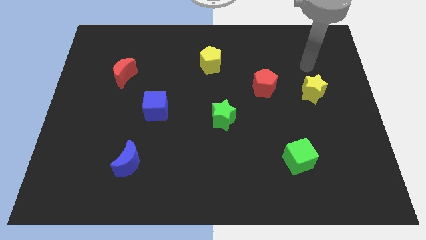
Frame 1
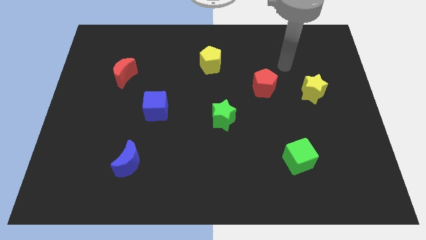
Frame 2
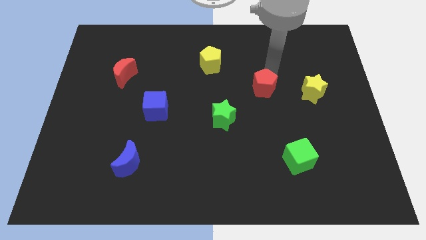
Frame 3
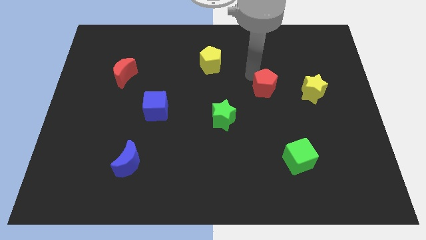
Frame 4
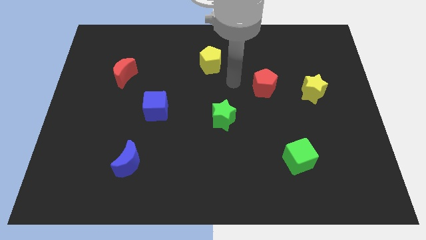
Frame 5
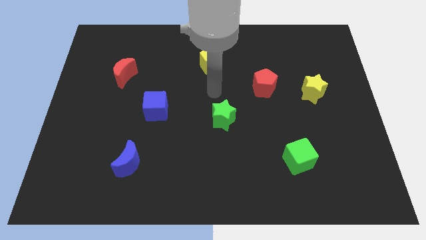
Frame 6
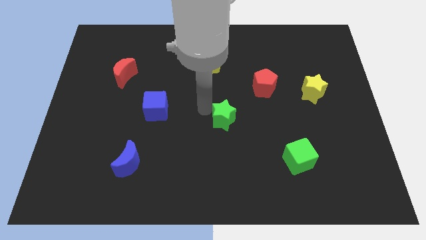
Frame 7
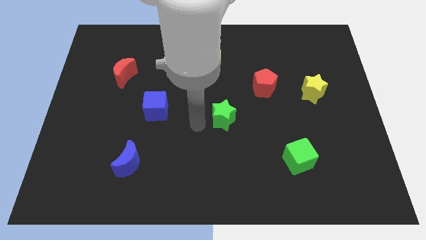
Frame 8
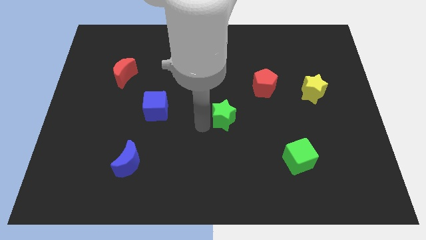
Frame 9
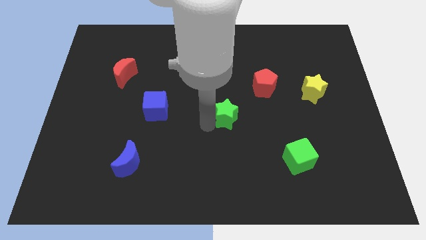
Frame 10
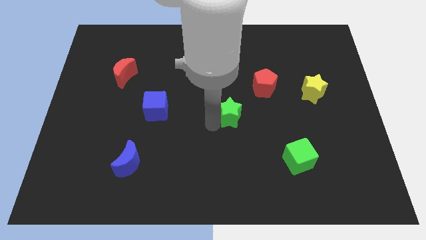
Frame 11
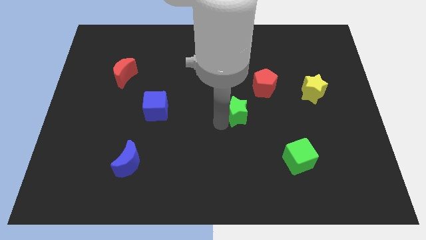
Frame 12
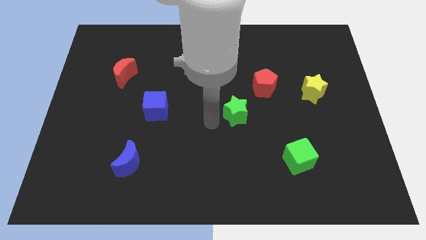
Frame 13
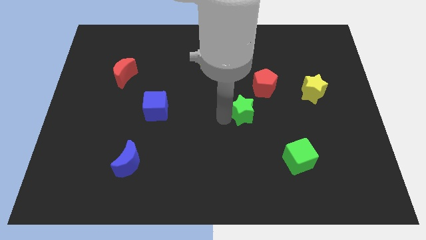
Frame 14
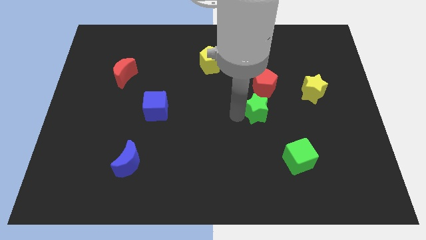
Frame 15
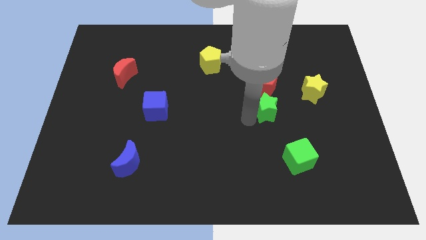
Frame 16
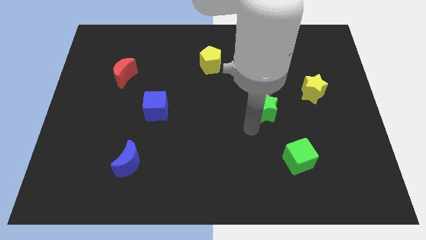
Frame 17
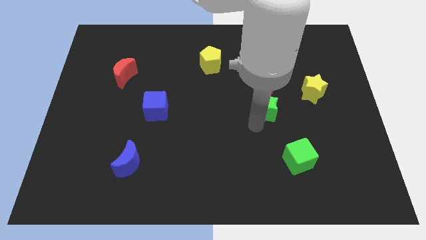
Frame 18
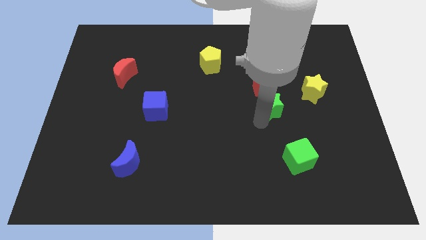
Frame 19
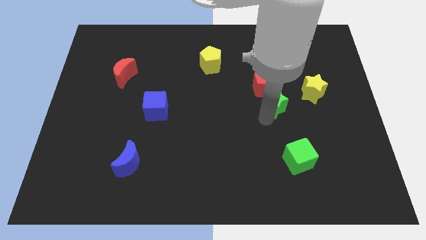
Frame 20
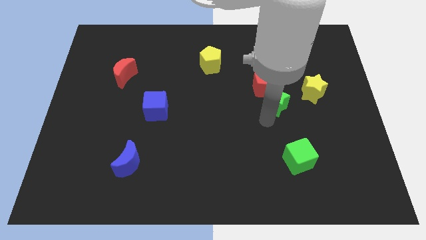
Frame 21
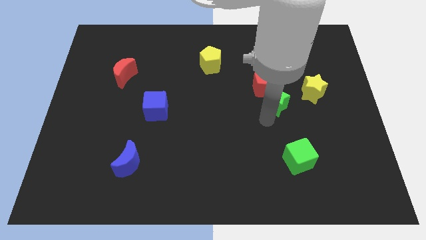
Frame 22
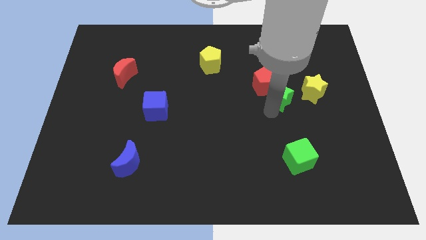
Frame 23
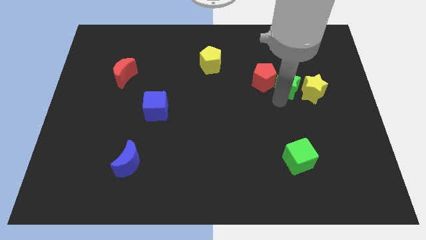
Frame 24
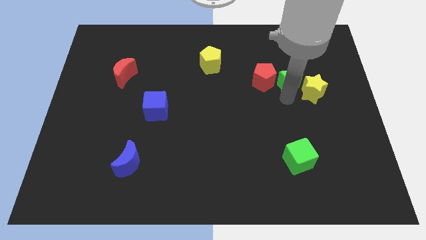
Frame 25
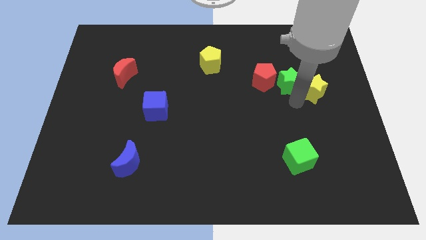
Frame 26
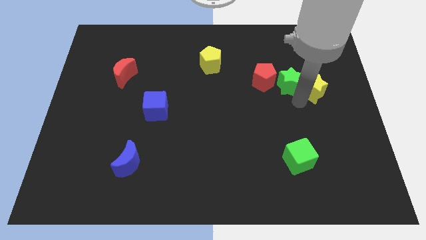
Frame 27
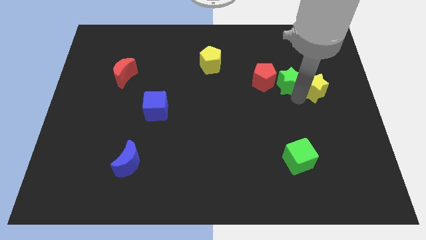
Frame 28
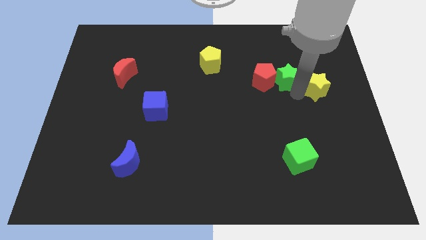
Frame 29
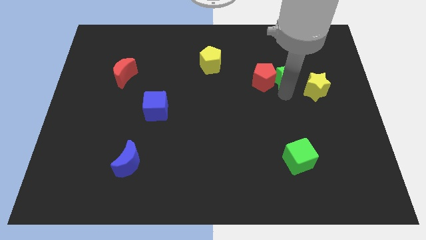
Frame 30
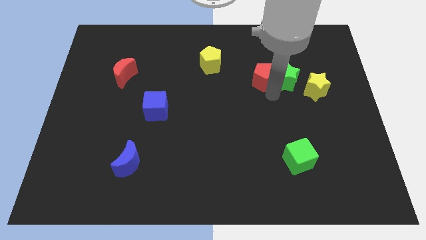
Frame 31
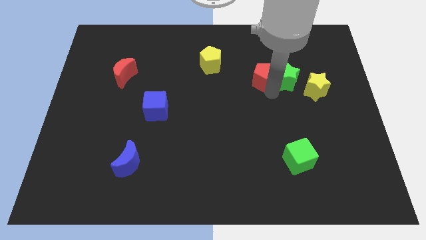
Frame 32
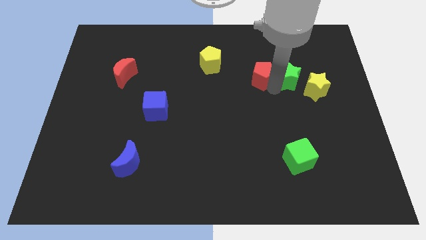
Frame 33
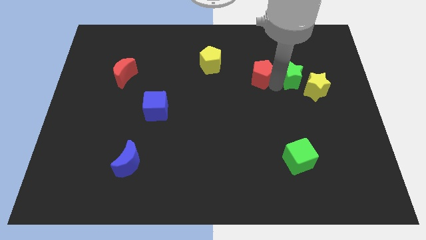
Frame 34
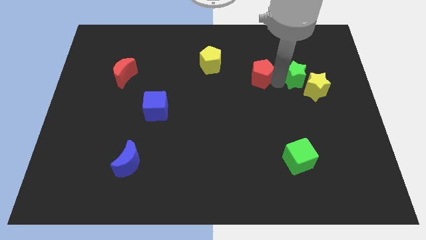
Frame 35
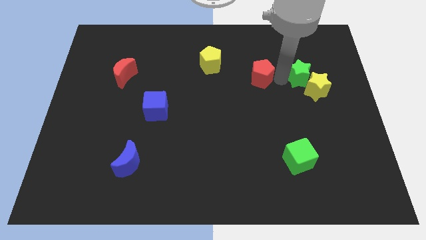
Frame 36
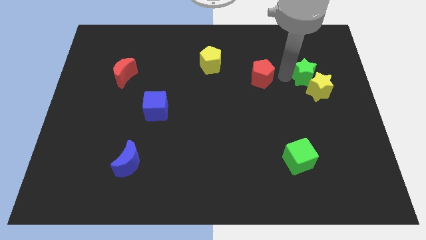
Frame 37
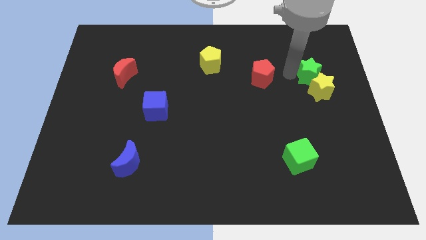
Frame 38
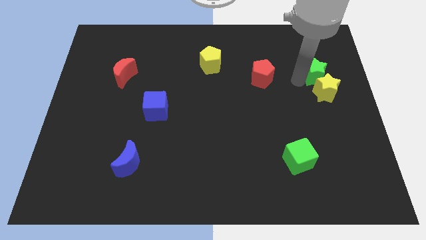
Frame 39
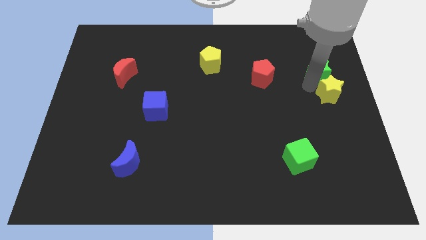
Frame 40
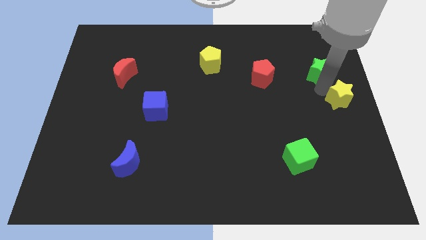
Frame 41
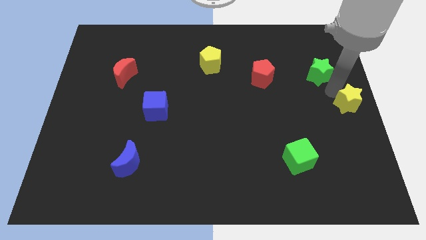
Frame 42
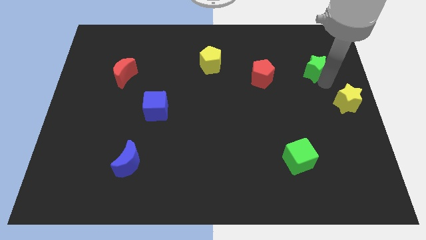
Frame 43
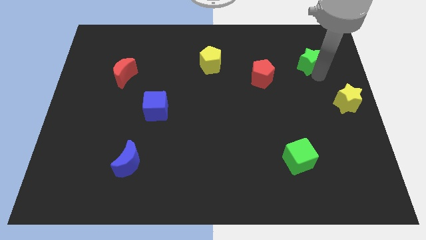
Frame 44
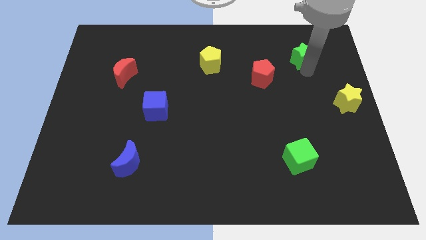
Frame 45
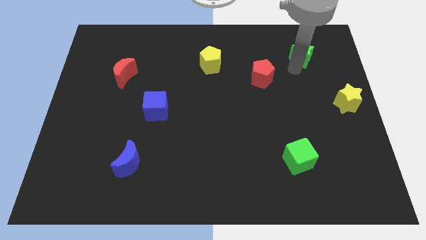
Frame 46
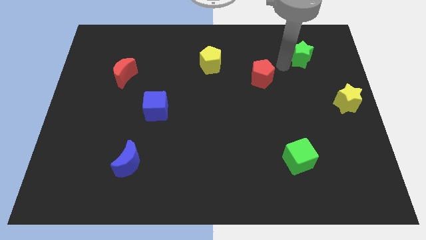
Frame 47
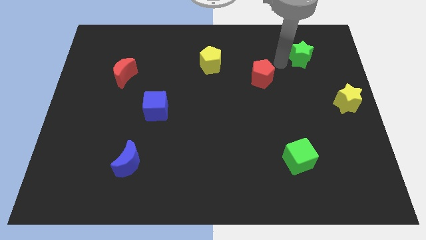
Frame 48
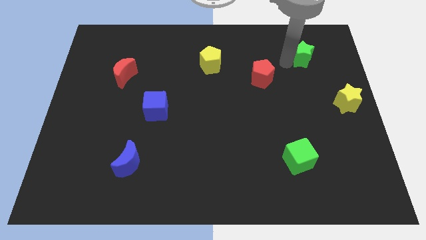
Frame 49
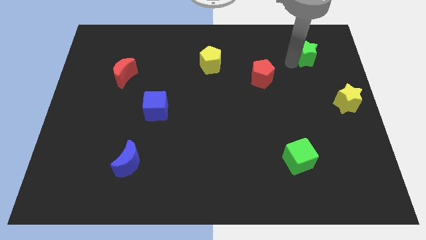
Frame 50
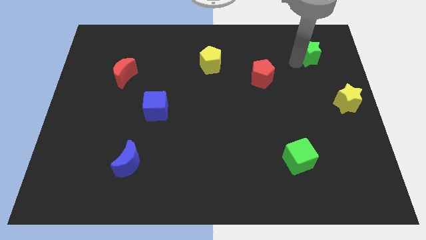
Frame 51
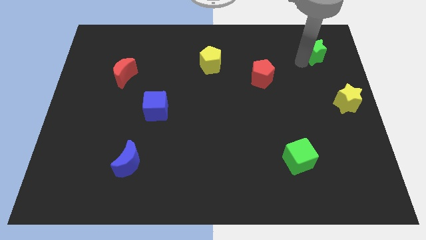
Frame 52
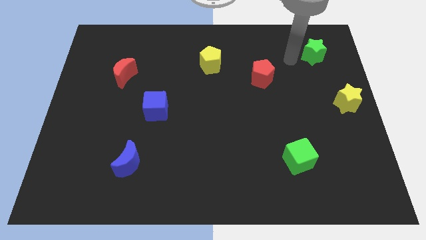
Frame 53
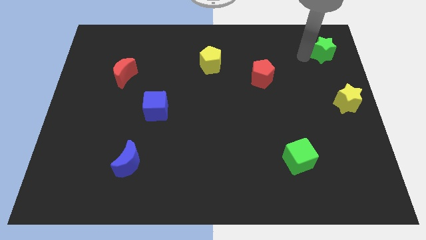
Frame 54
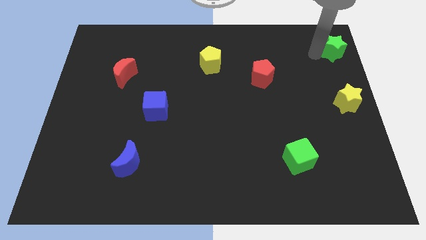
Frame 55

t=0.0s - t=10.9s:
move the green star to the upper right corner
